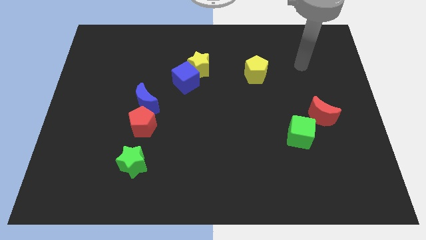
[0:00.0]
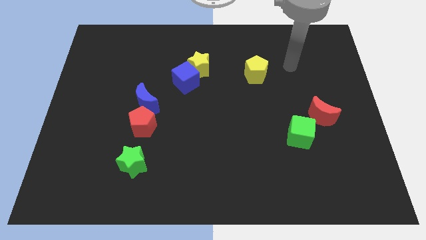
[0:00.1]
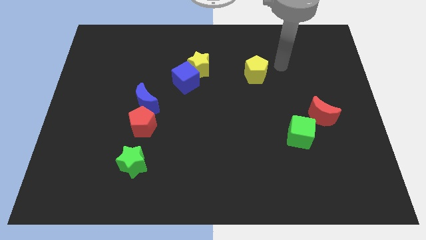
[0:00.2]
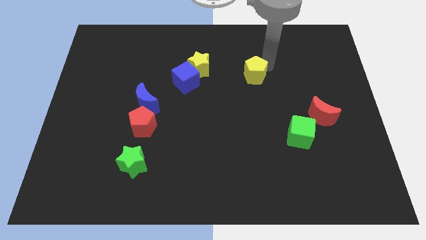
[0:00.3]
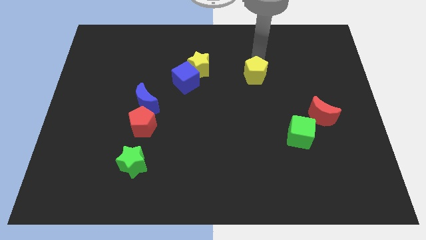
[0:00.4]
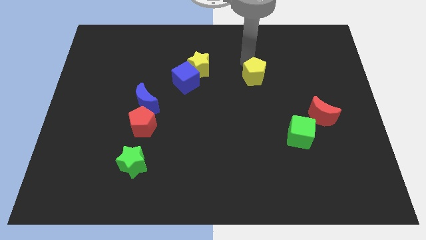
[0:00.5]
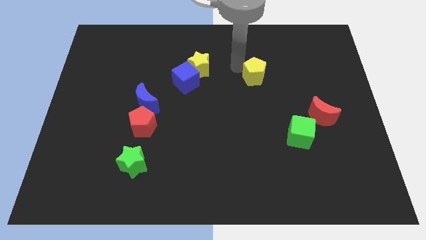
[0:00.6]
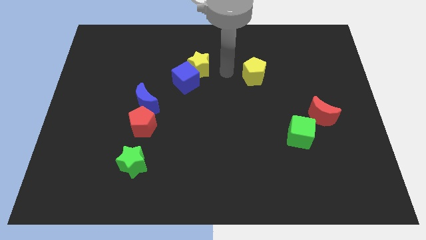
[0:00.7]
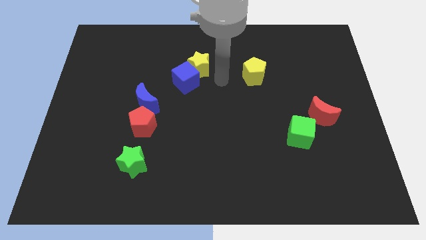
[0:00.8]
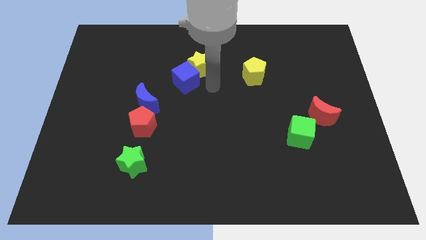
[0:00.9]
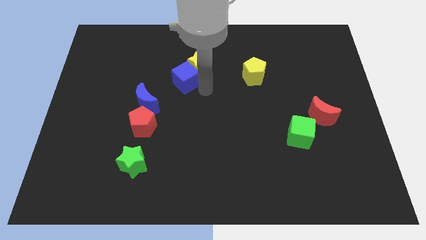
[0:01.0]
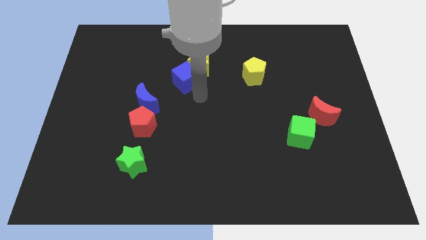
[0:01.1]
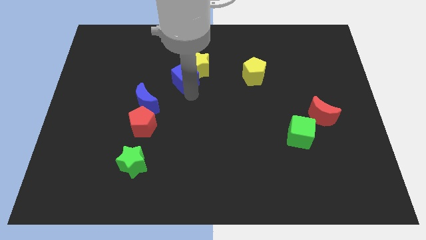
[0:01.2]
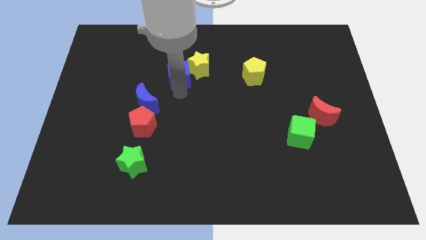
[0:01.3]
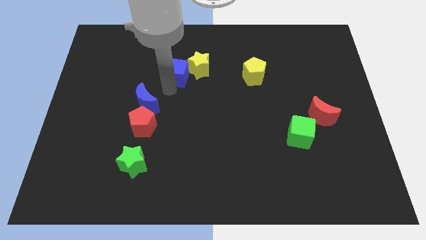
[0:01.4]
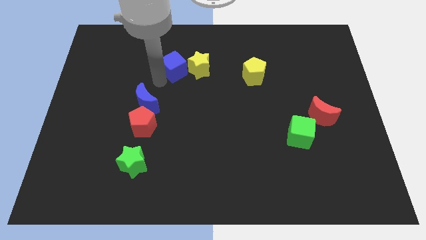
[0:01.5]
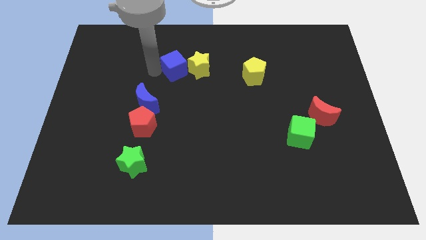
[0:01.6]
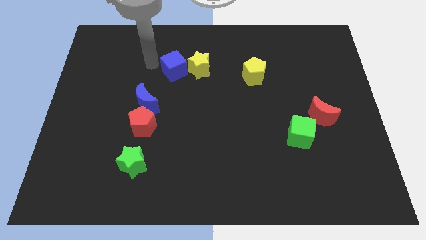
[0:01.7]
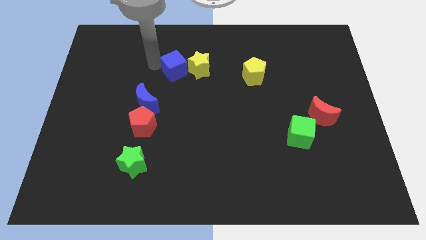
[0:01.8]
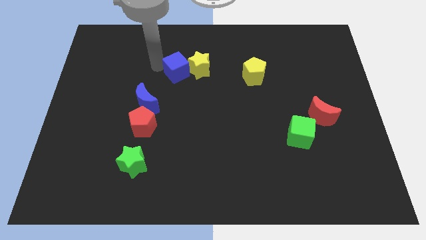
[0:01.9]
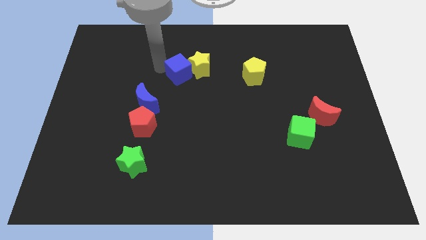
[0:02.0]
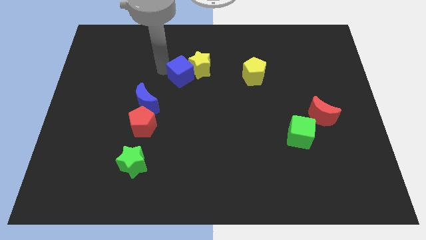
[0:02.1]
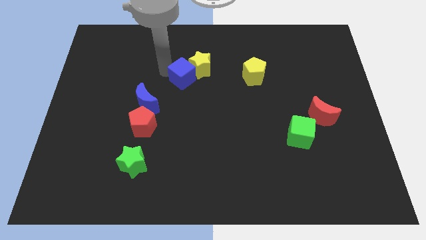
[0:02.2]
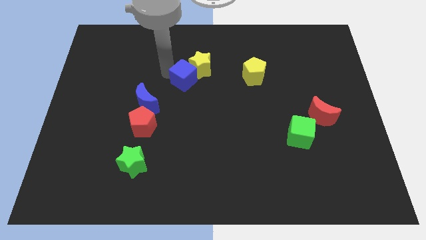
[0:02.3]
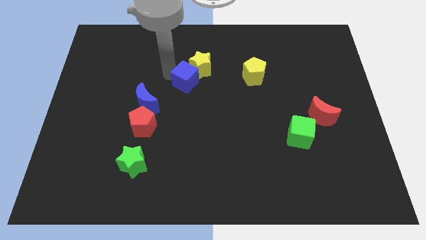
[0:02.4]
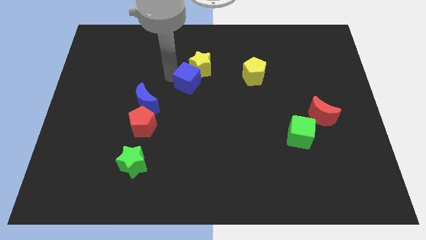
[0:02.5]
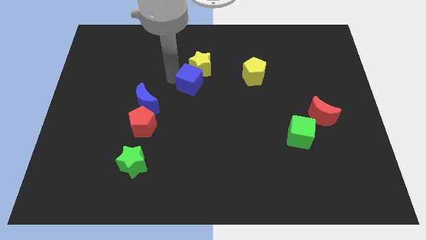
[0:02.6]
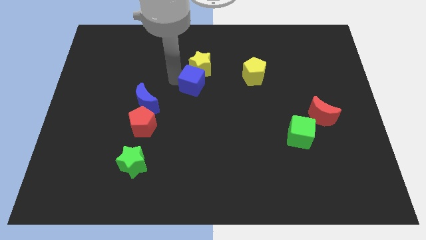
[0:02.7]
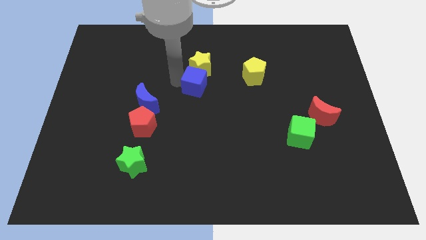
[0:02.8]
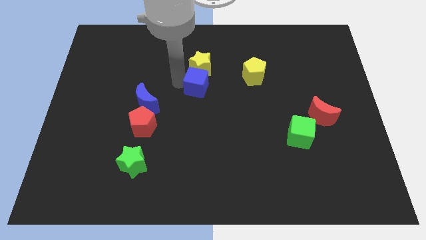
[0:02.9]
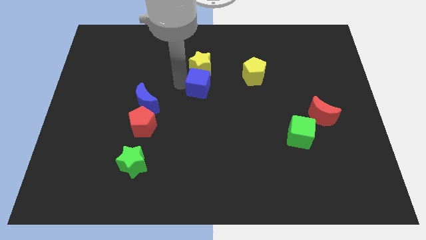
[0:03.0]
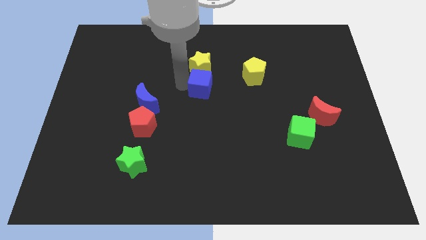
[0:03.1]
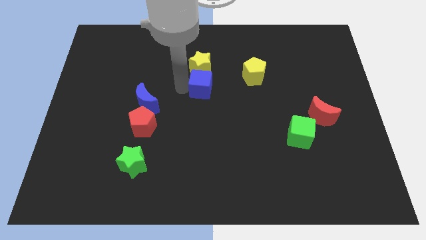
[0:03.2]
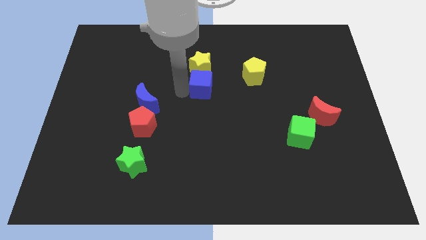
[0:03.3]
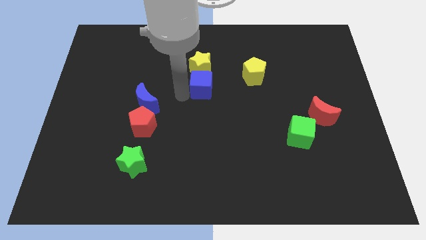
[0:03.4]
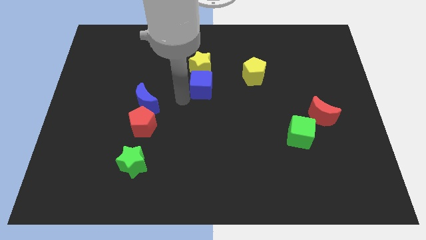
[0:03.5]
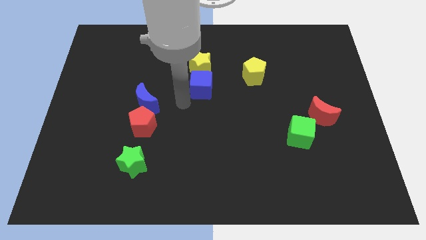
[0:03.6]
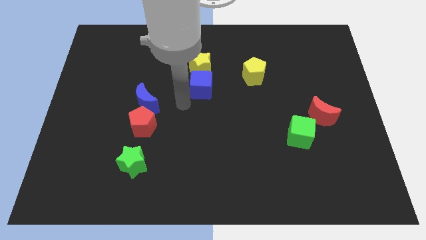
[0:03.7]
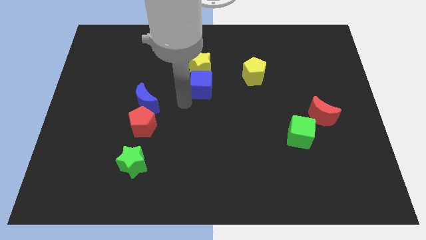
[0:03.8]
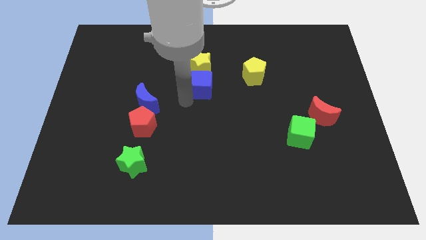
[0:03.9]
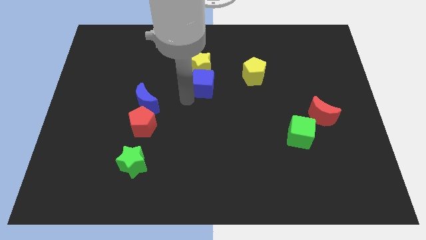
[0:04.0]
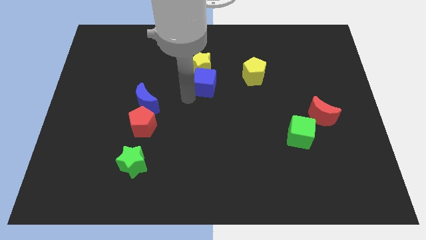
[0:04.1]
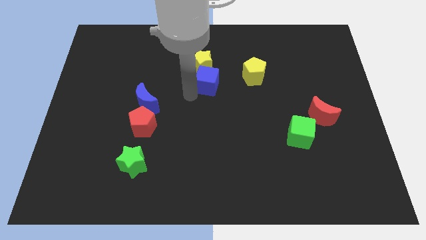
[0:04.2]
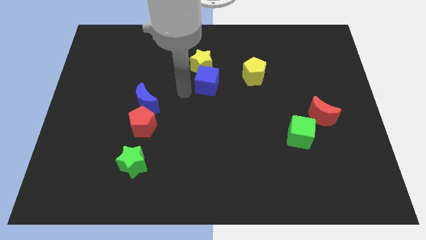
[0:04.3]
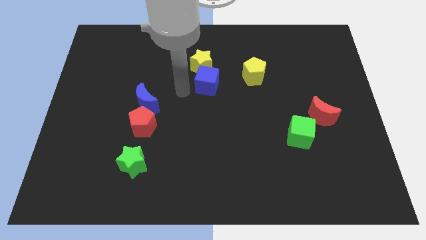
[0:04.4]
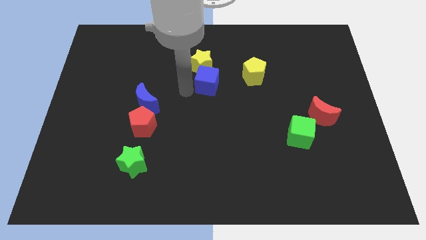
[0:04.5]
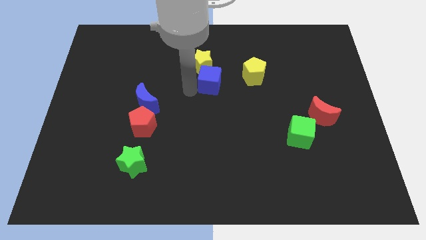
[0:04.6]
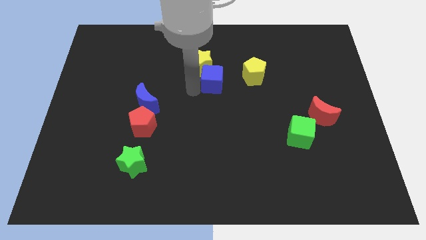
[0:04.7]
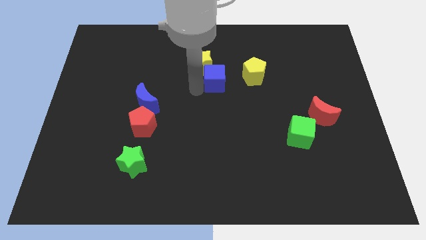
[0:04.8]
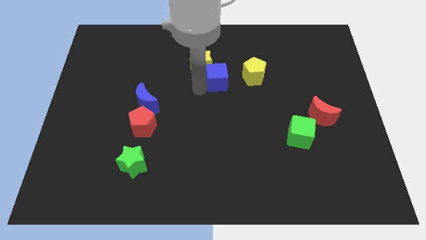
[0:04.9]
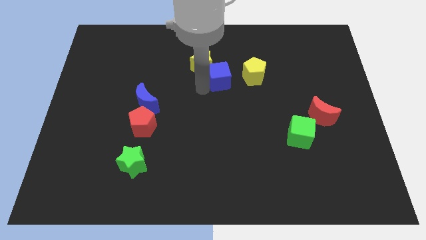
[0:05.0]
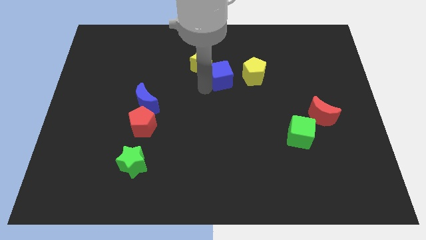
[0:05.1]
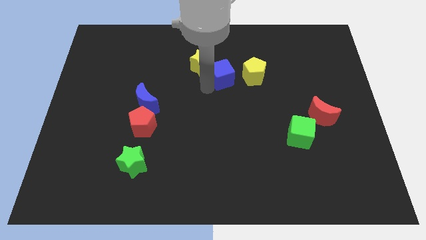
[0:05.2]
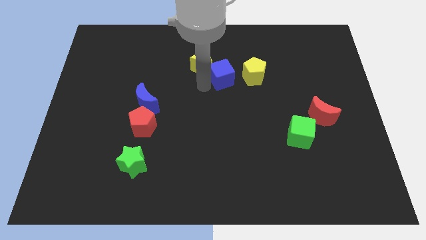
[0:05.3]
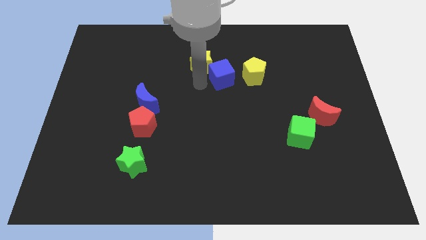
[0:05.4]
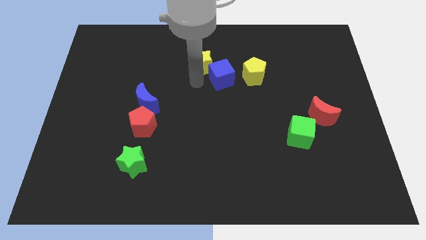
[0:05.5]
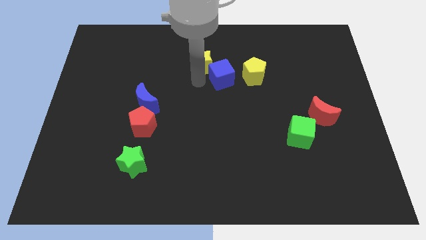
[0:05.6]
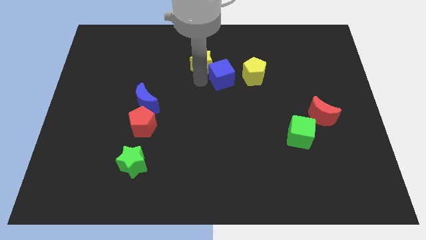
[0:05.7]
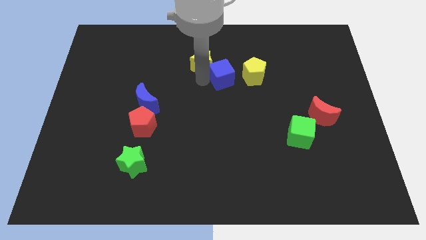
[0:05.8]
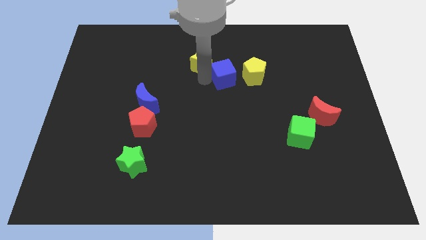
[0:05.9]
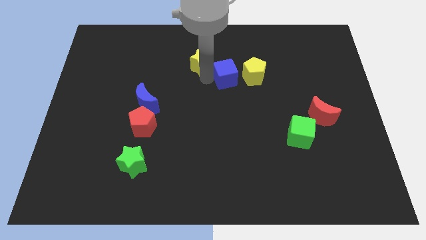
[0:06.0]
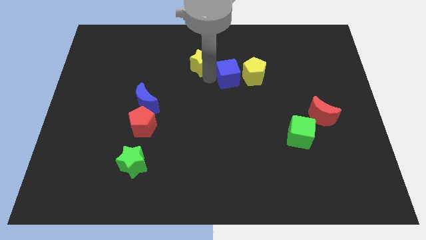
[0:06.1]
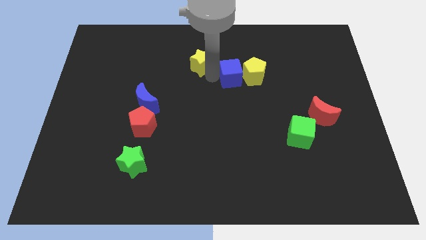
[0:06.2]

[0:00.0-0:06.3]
move the blue cube next to the yellow pentagon

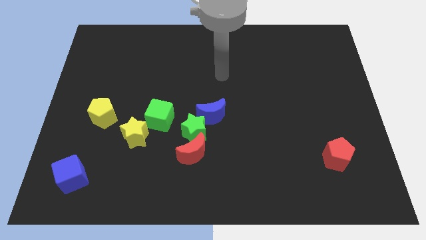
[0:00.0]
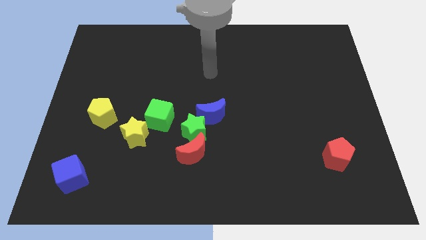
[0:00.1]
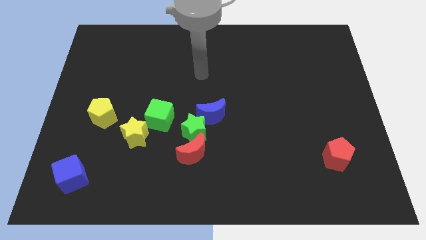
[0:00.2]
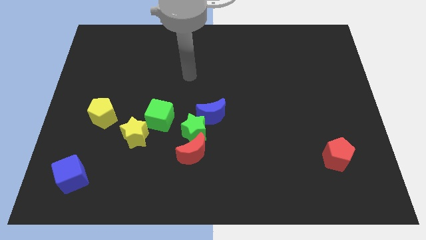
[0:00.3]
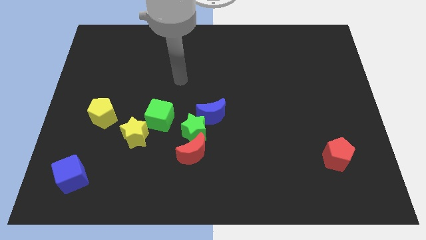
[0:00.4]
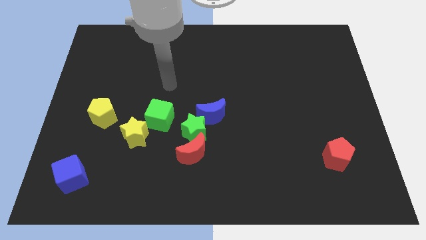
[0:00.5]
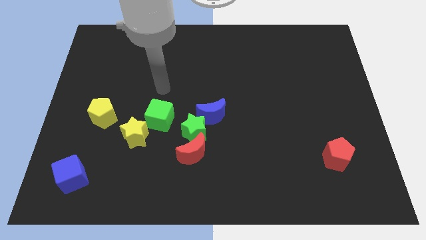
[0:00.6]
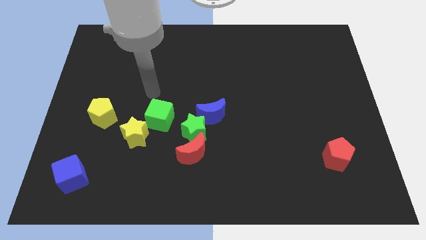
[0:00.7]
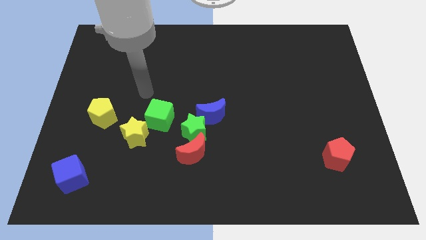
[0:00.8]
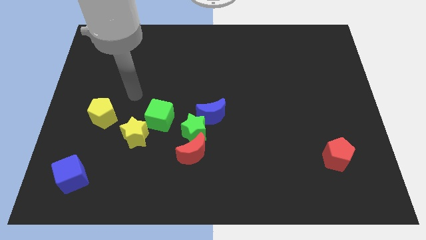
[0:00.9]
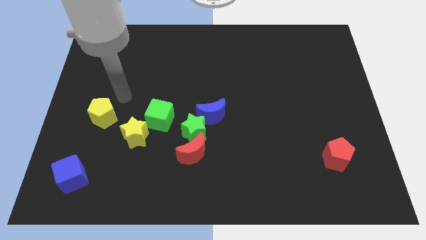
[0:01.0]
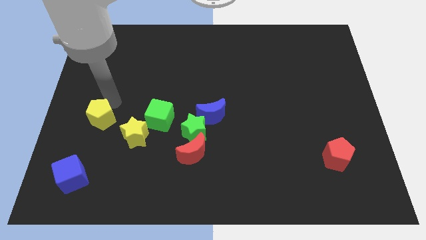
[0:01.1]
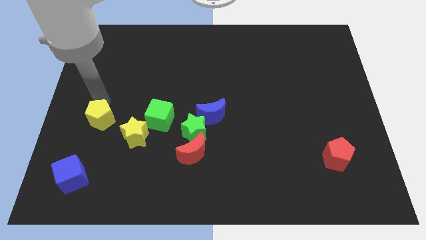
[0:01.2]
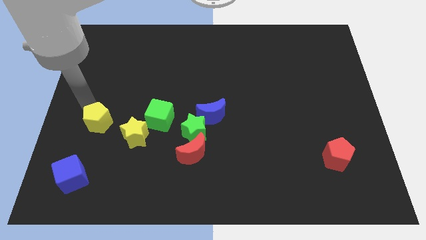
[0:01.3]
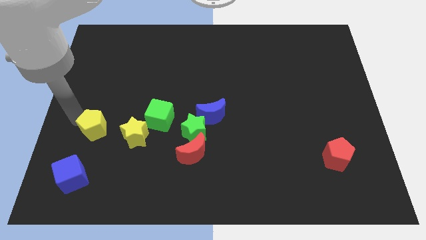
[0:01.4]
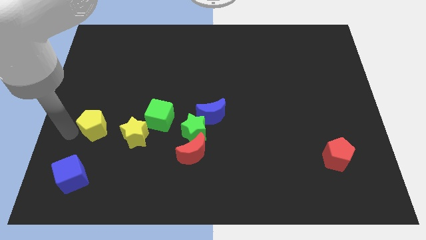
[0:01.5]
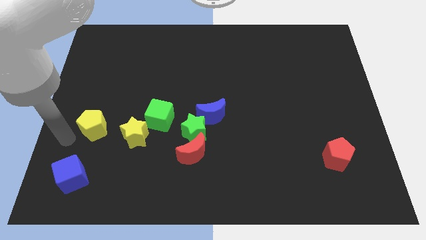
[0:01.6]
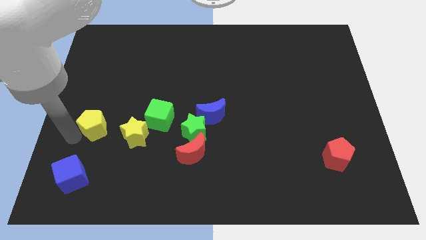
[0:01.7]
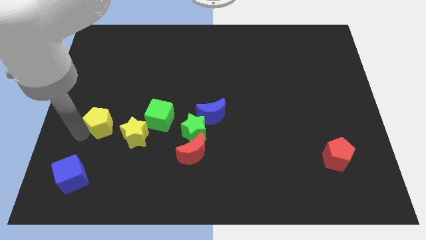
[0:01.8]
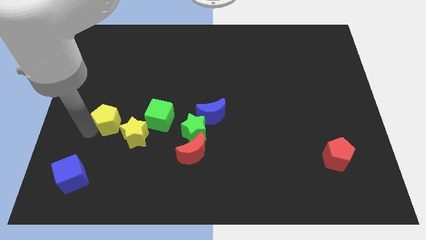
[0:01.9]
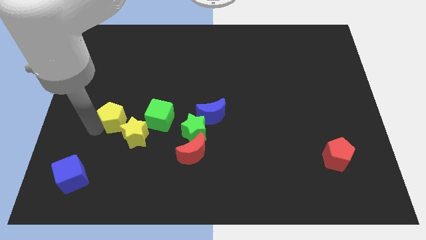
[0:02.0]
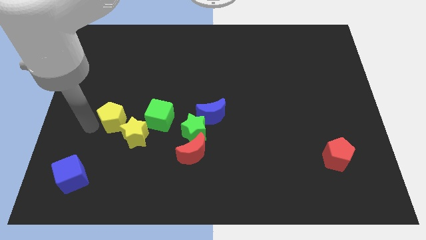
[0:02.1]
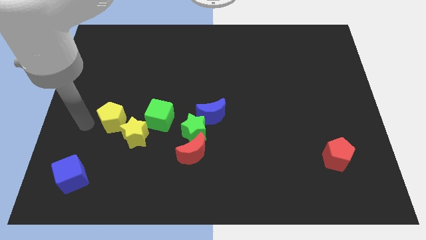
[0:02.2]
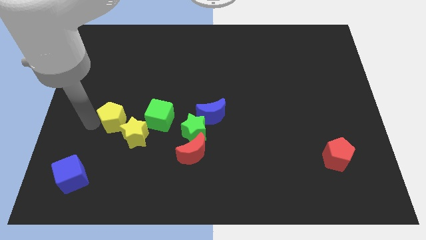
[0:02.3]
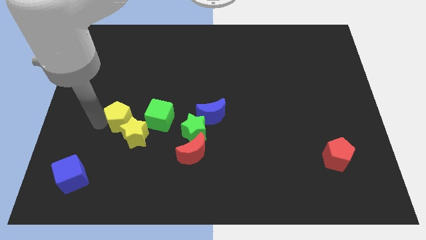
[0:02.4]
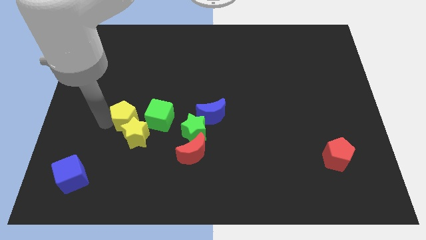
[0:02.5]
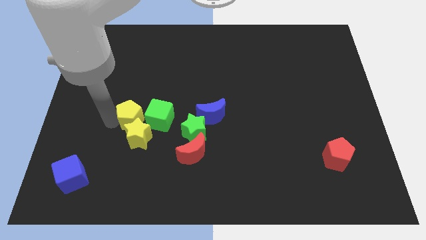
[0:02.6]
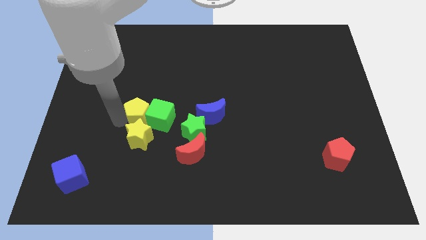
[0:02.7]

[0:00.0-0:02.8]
push the yellow pentagon to the green cube
